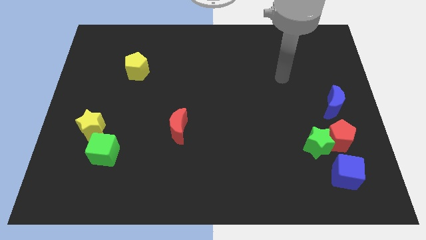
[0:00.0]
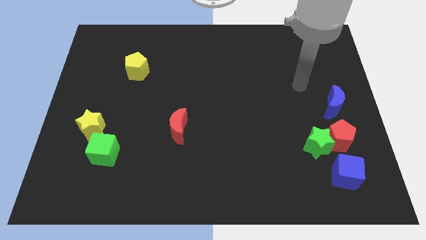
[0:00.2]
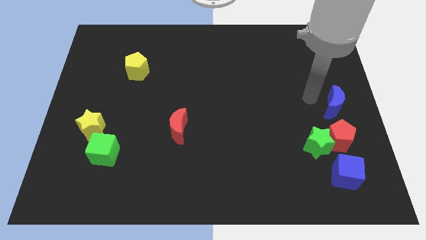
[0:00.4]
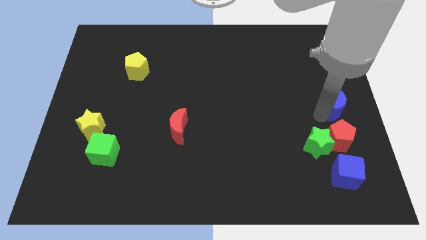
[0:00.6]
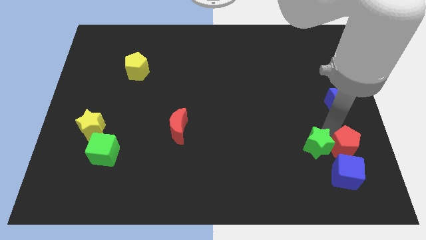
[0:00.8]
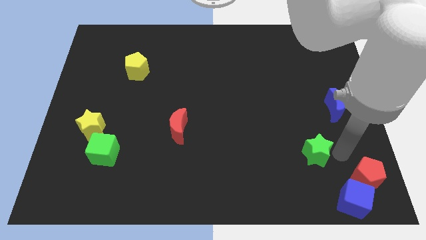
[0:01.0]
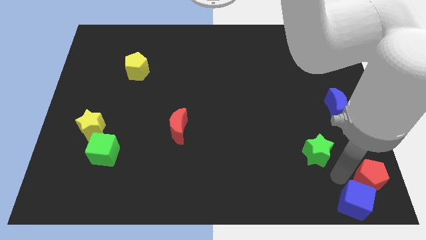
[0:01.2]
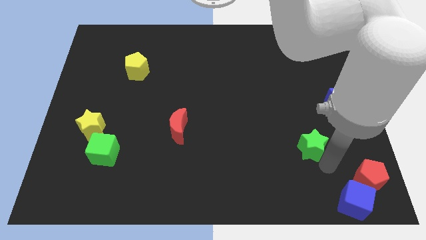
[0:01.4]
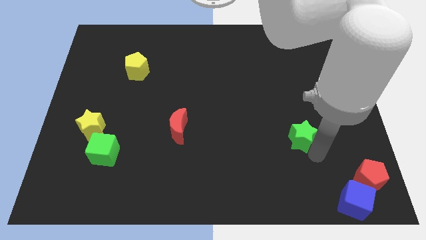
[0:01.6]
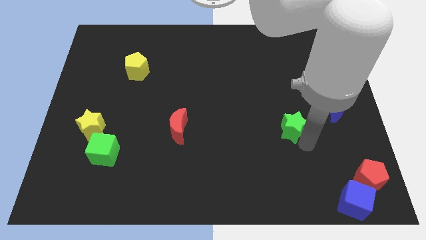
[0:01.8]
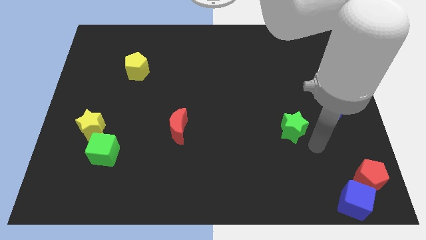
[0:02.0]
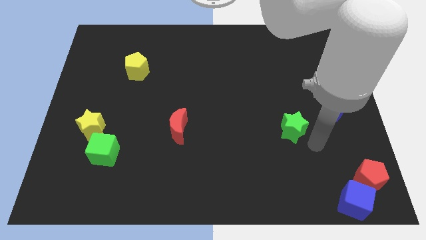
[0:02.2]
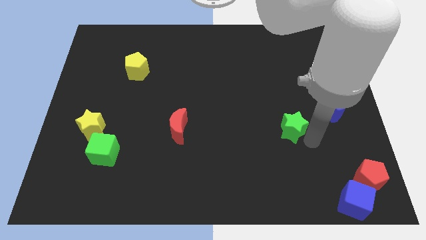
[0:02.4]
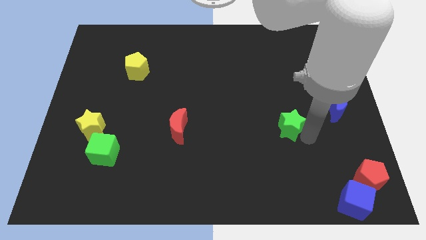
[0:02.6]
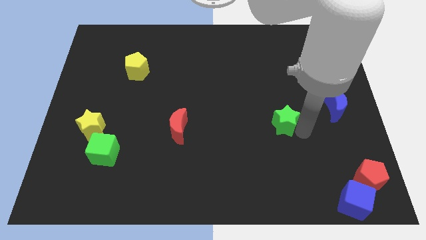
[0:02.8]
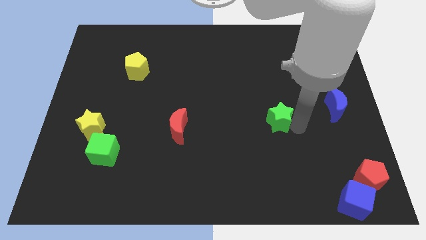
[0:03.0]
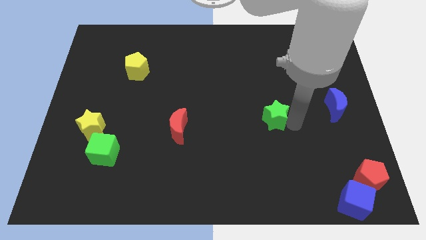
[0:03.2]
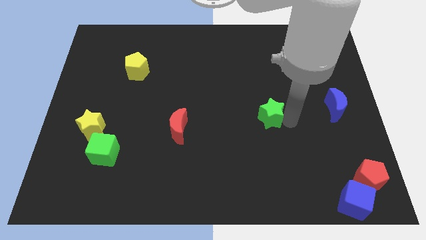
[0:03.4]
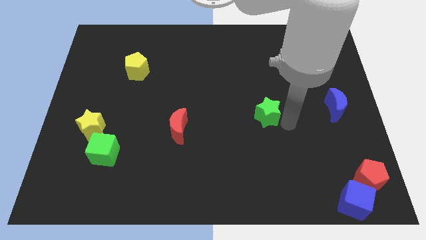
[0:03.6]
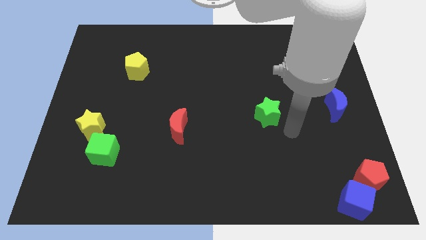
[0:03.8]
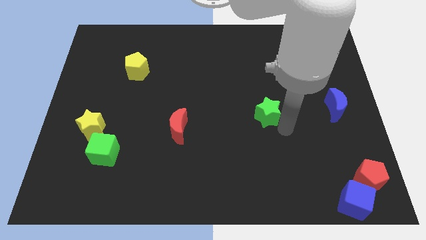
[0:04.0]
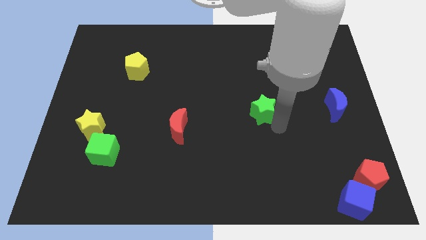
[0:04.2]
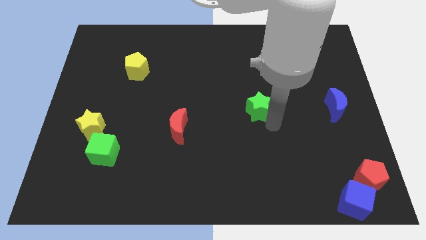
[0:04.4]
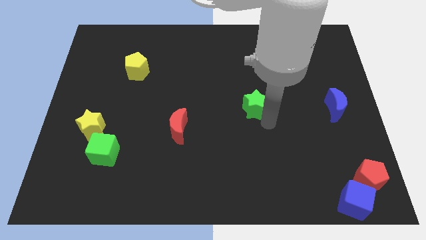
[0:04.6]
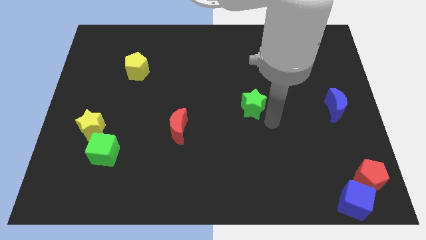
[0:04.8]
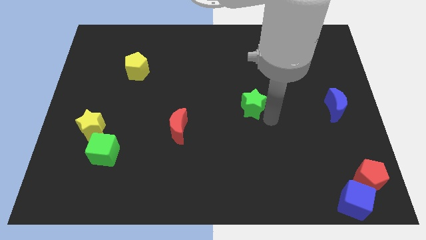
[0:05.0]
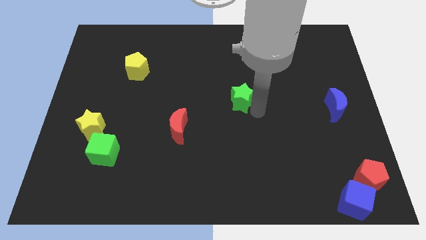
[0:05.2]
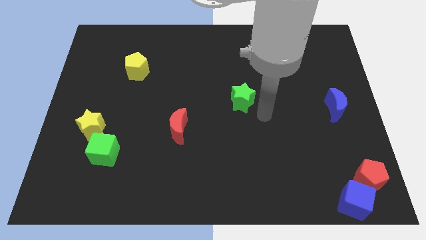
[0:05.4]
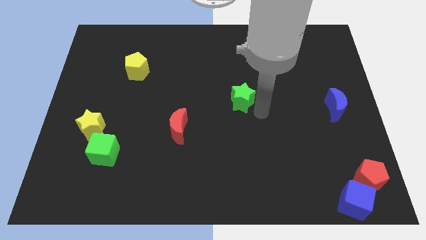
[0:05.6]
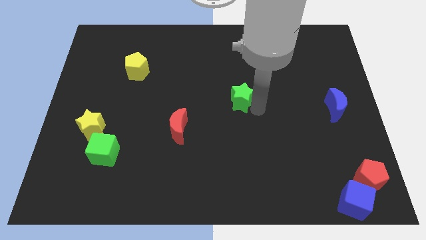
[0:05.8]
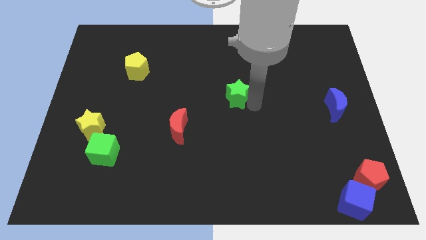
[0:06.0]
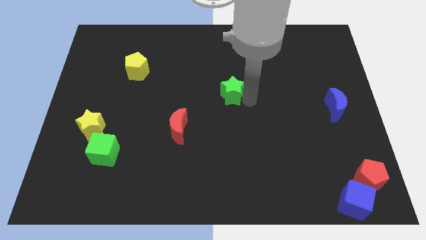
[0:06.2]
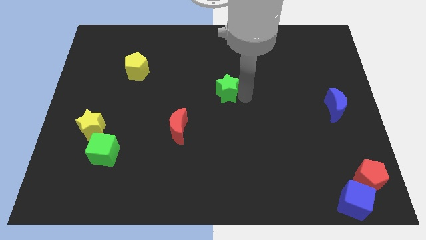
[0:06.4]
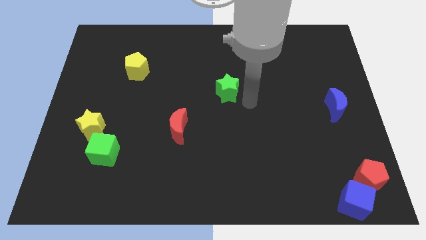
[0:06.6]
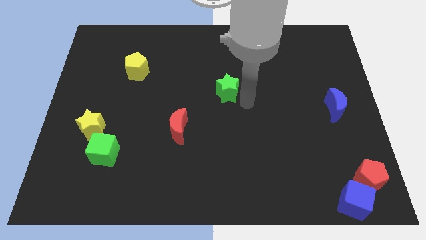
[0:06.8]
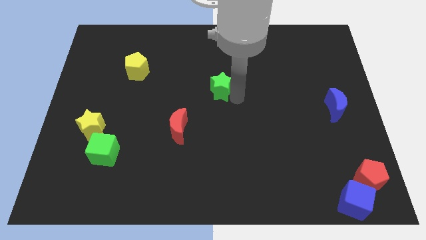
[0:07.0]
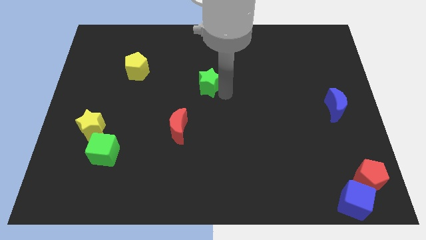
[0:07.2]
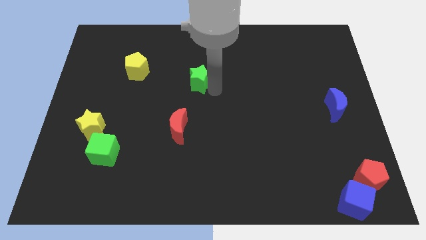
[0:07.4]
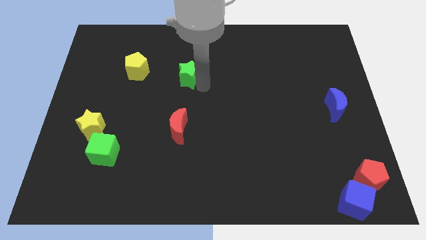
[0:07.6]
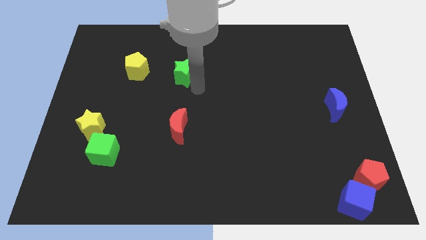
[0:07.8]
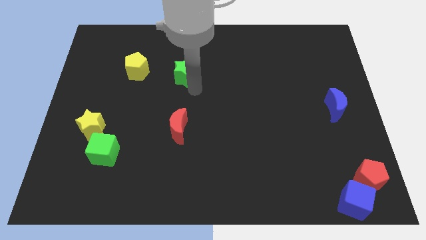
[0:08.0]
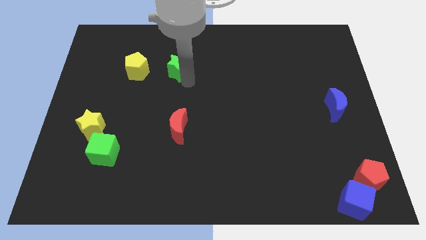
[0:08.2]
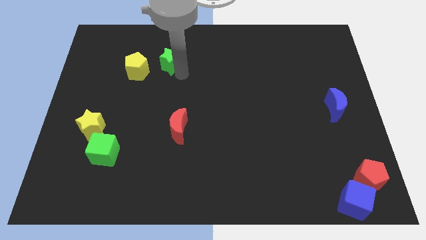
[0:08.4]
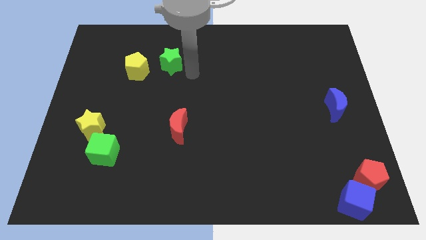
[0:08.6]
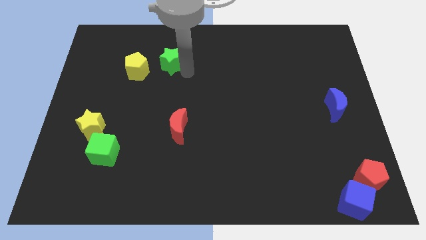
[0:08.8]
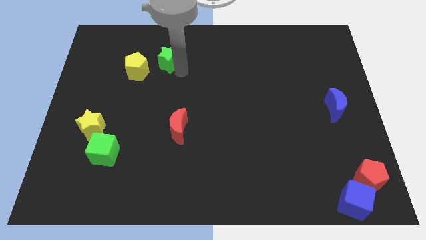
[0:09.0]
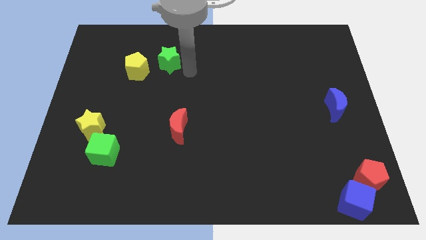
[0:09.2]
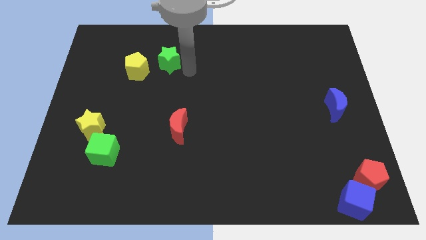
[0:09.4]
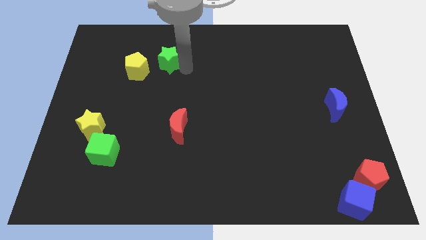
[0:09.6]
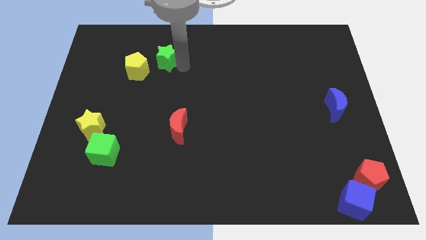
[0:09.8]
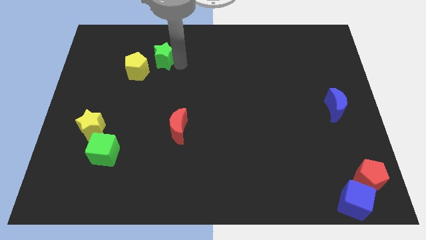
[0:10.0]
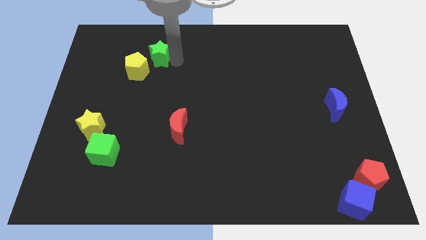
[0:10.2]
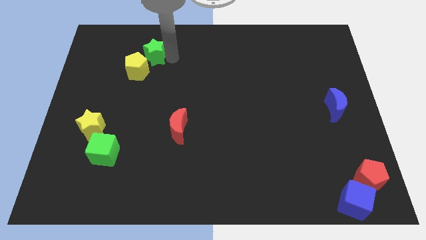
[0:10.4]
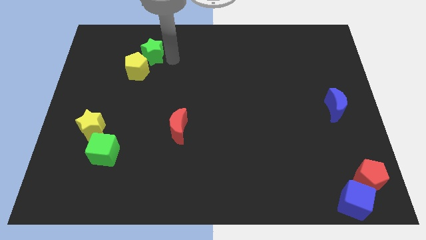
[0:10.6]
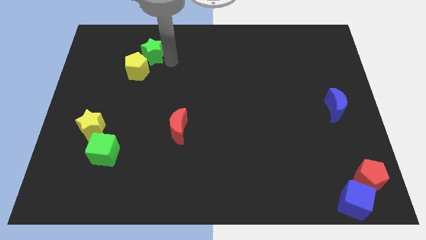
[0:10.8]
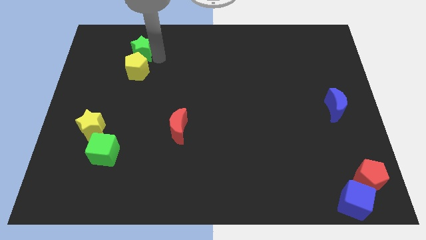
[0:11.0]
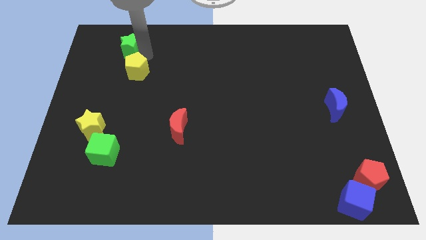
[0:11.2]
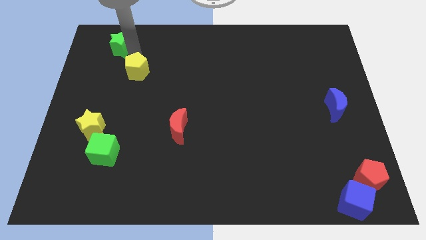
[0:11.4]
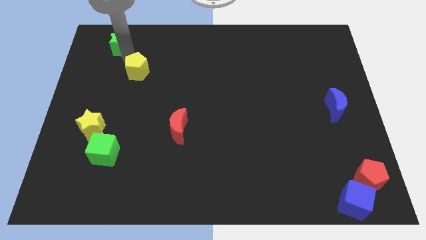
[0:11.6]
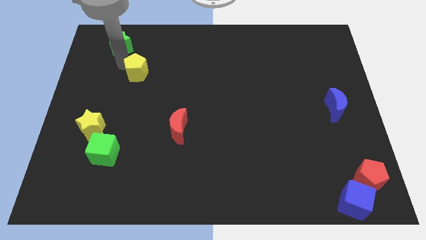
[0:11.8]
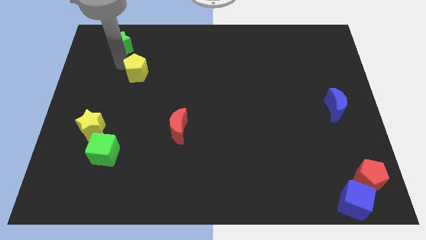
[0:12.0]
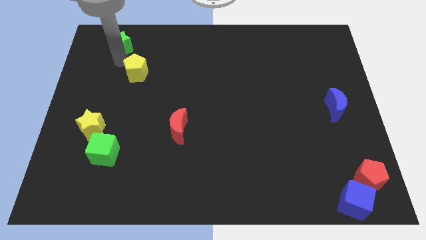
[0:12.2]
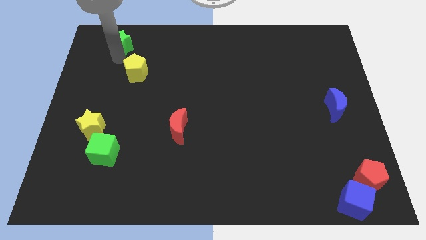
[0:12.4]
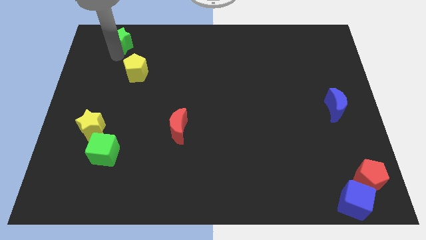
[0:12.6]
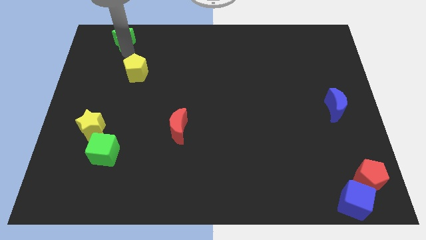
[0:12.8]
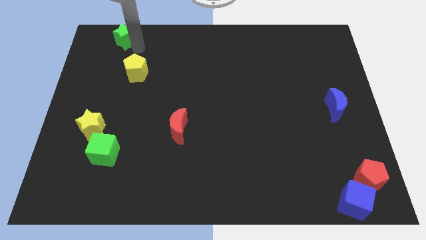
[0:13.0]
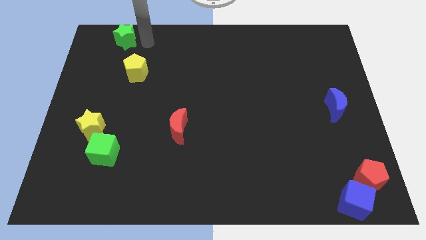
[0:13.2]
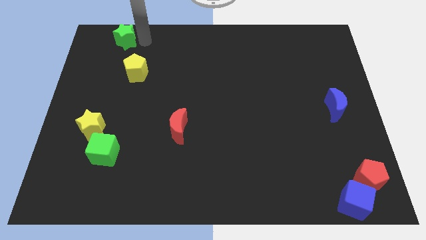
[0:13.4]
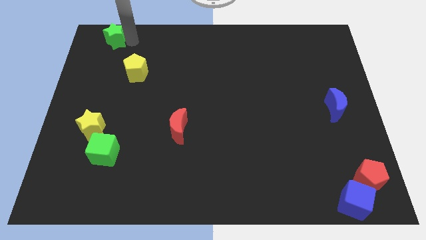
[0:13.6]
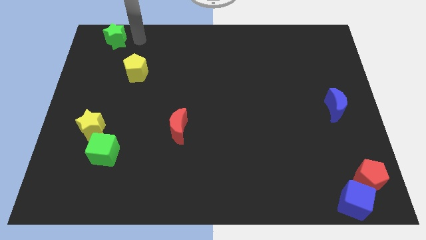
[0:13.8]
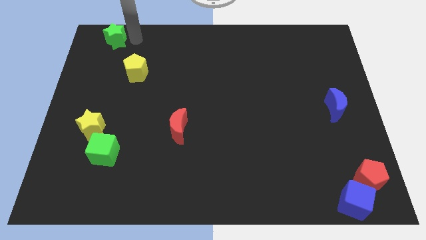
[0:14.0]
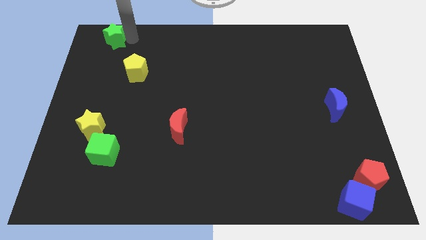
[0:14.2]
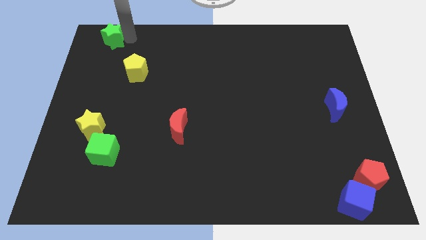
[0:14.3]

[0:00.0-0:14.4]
move the green star to the top left
